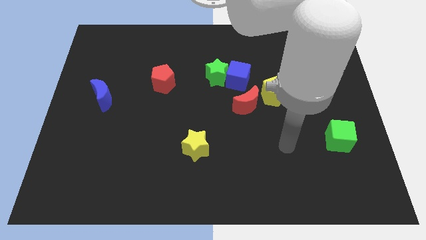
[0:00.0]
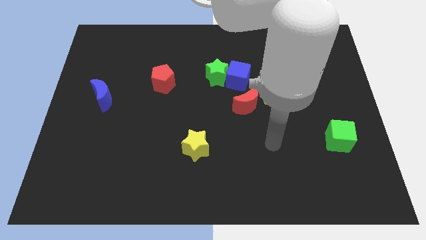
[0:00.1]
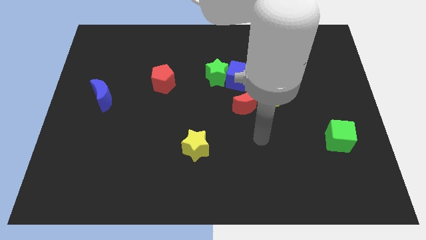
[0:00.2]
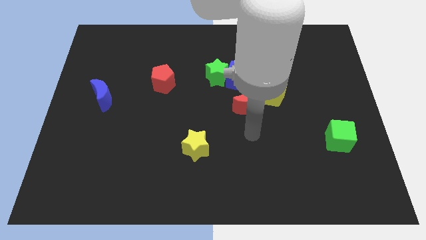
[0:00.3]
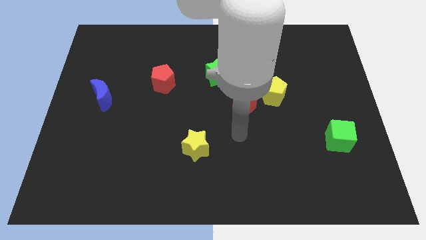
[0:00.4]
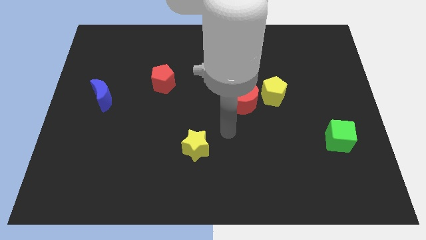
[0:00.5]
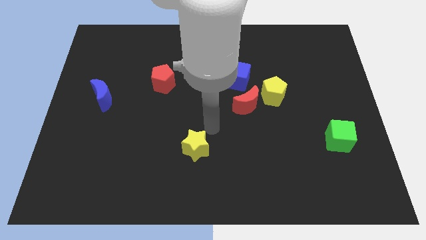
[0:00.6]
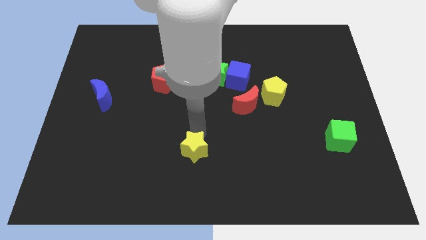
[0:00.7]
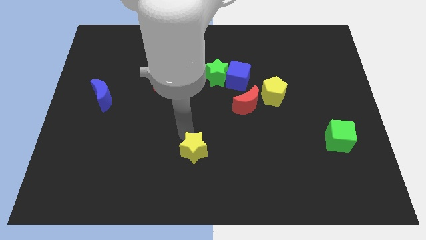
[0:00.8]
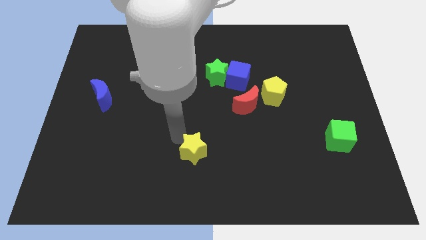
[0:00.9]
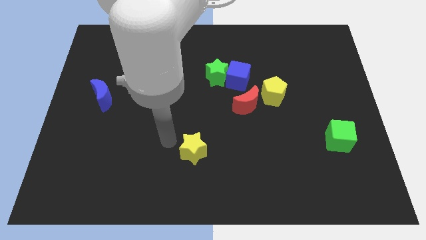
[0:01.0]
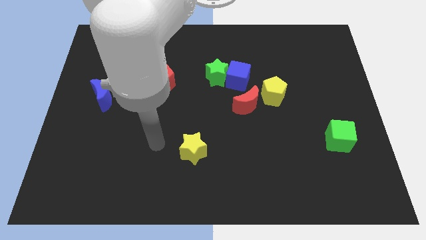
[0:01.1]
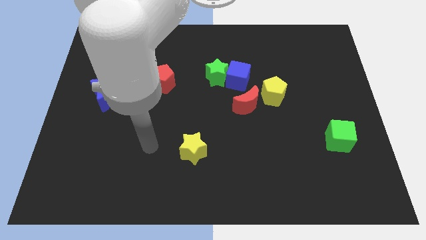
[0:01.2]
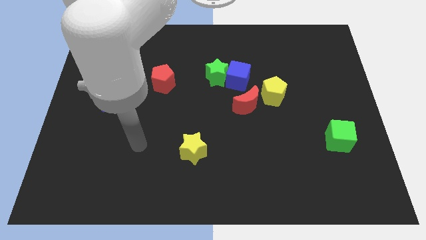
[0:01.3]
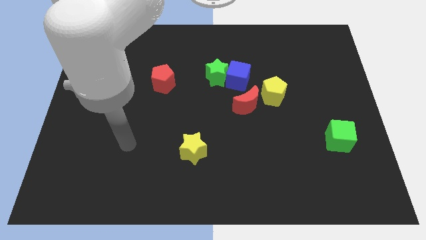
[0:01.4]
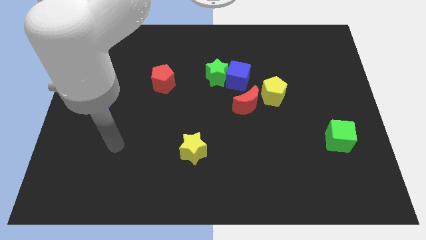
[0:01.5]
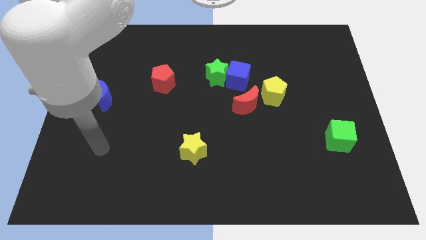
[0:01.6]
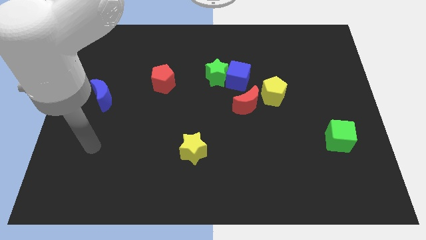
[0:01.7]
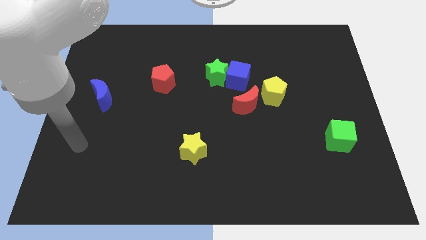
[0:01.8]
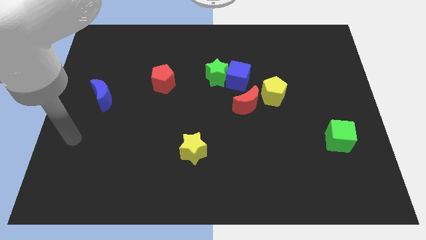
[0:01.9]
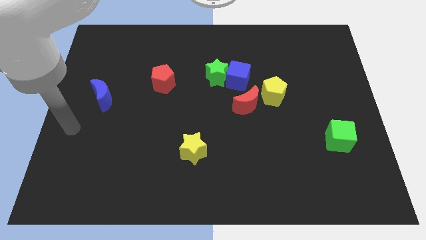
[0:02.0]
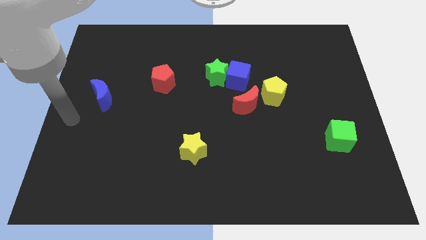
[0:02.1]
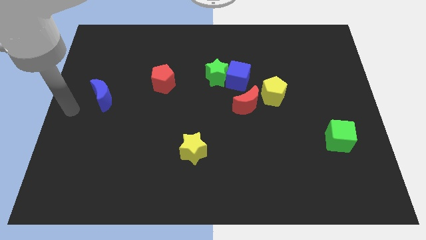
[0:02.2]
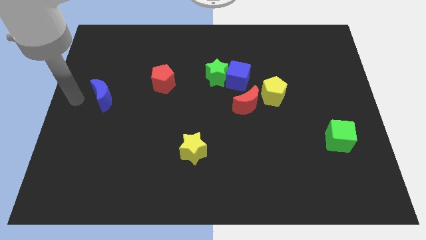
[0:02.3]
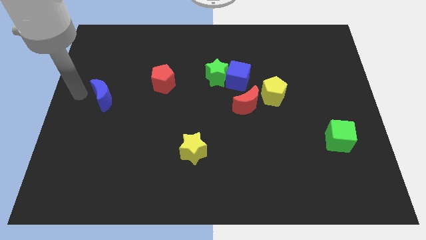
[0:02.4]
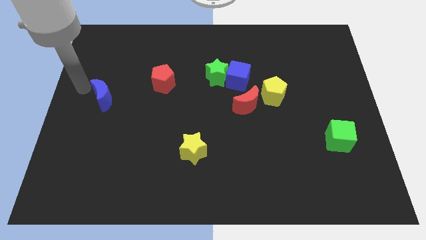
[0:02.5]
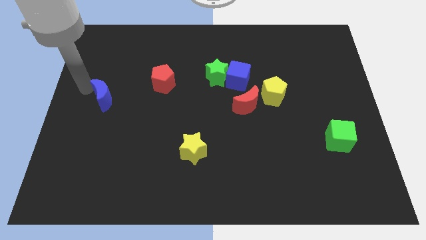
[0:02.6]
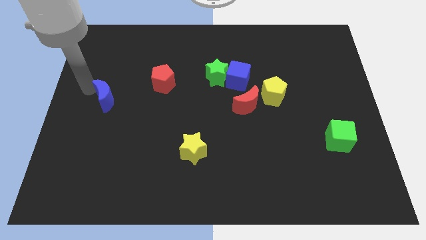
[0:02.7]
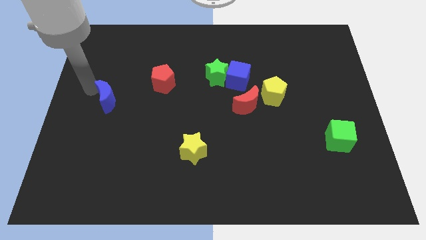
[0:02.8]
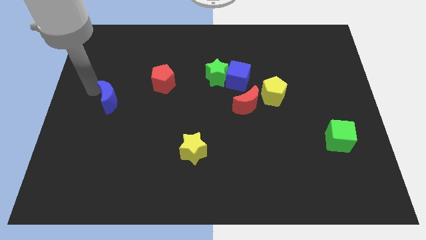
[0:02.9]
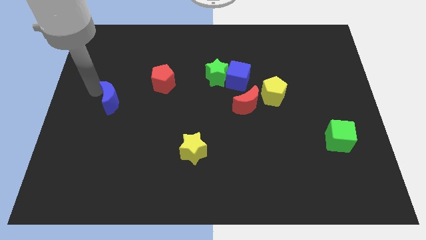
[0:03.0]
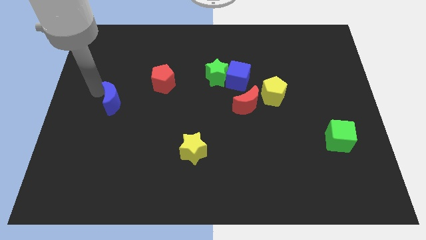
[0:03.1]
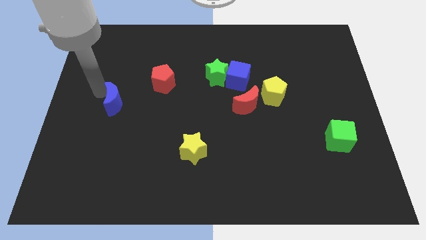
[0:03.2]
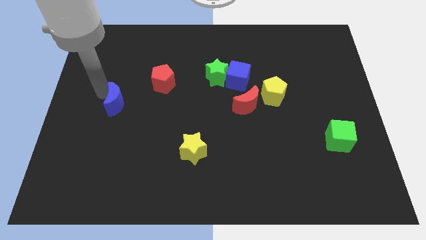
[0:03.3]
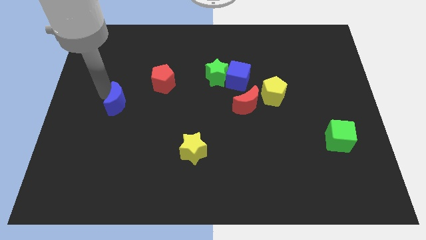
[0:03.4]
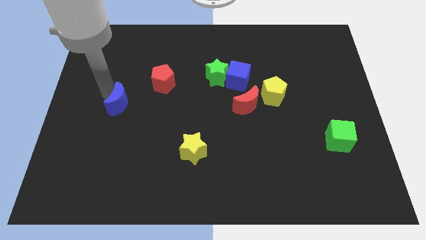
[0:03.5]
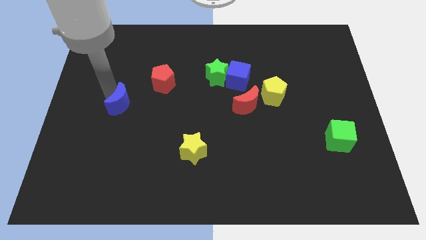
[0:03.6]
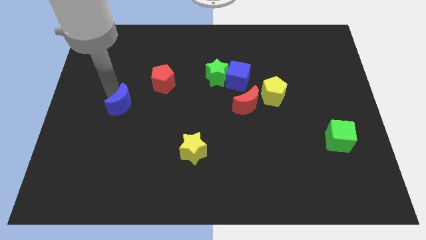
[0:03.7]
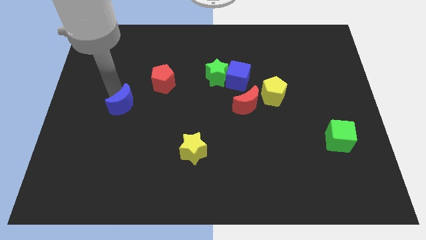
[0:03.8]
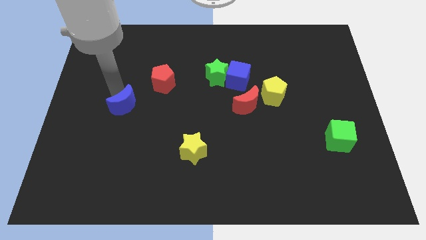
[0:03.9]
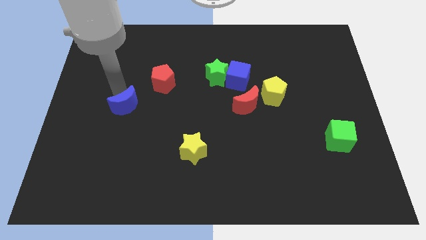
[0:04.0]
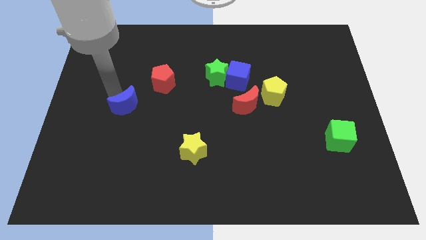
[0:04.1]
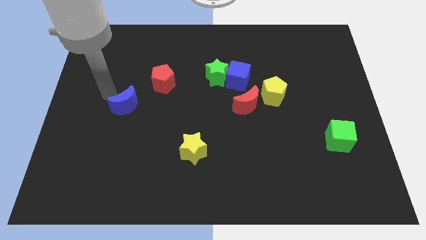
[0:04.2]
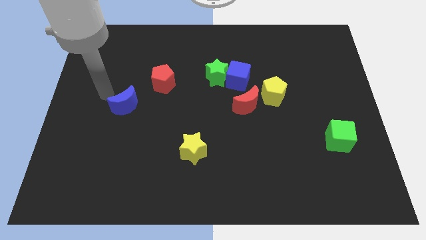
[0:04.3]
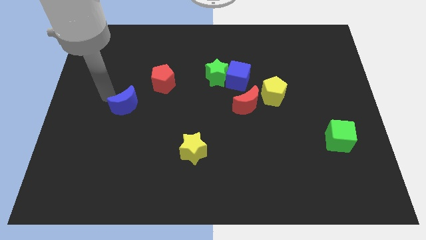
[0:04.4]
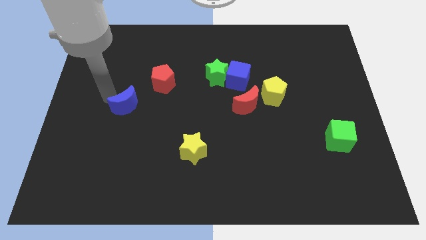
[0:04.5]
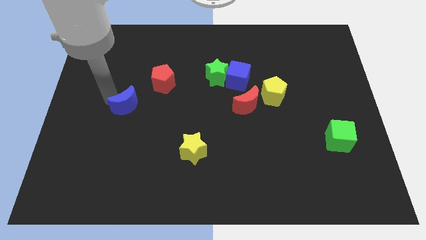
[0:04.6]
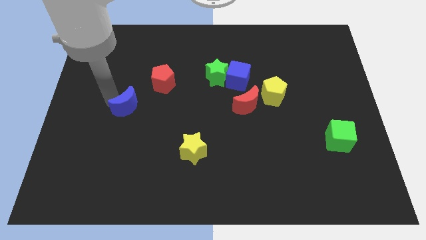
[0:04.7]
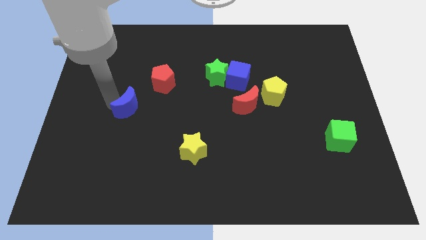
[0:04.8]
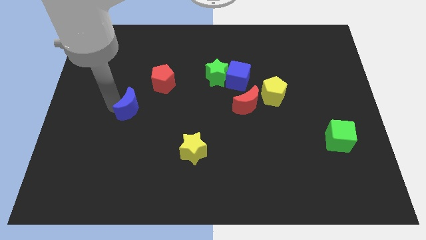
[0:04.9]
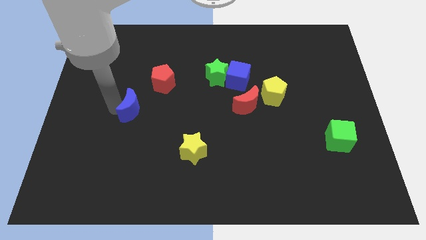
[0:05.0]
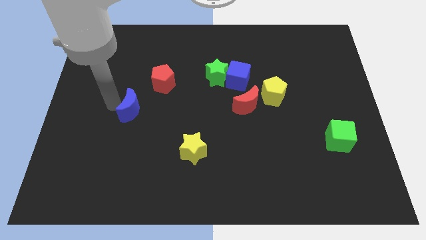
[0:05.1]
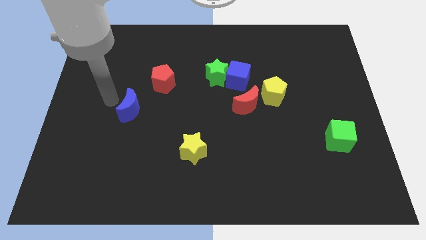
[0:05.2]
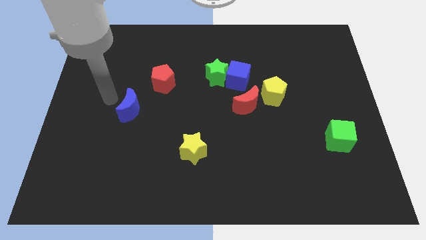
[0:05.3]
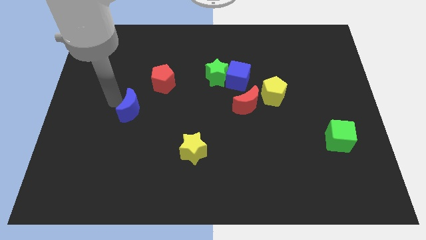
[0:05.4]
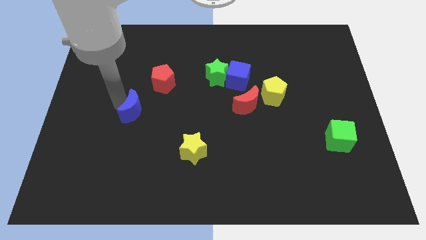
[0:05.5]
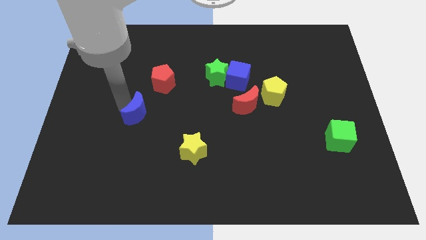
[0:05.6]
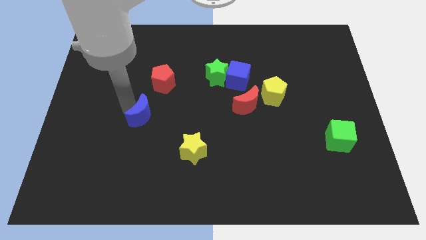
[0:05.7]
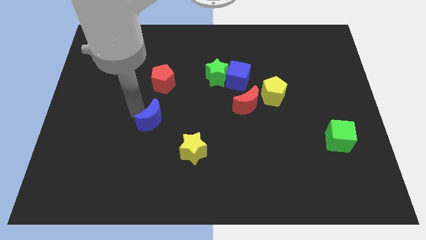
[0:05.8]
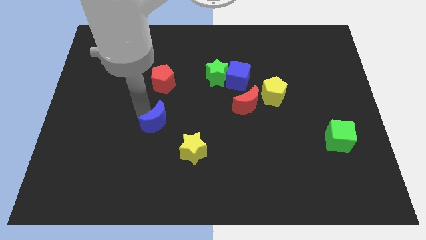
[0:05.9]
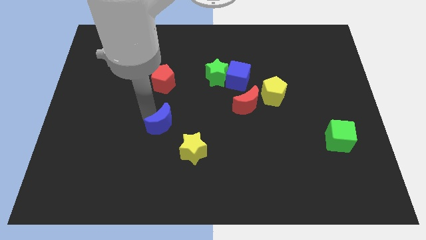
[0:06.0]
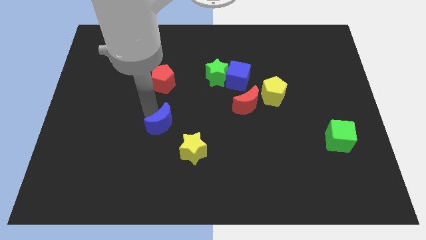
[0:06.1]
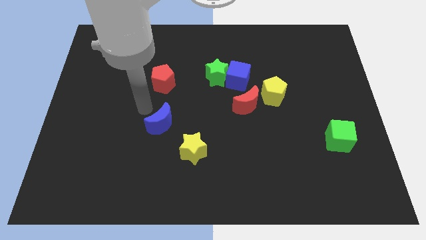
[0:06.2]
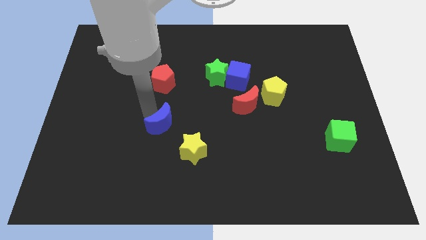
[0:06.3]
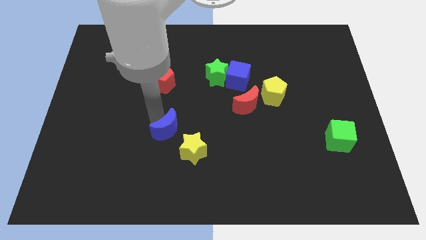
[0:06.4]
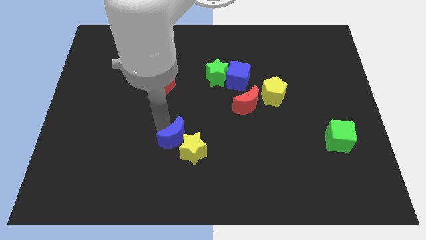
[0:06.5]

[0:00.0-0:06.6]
put the blue moon next to the yellow star
